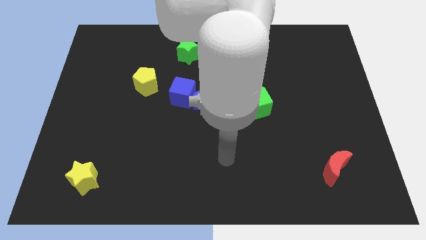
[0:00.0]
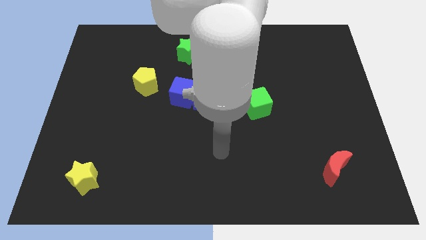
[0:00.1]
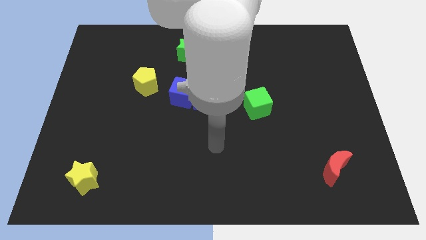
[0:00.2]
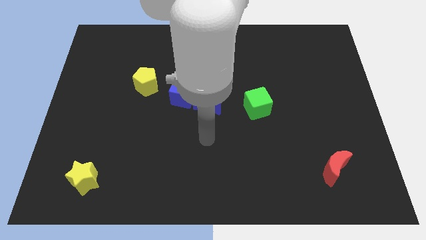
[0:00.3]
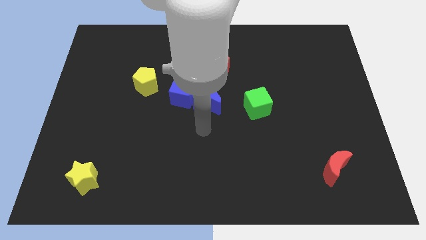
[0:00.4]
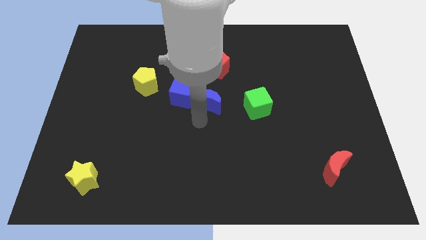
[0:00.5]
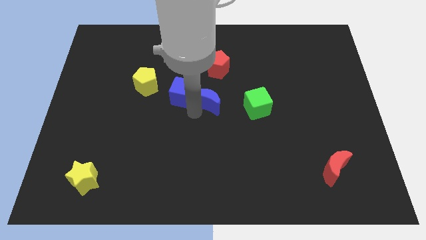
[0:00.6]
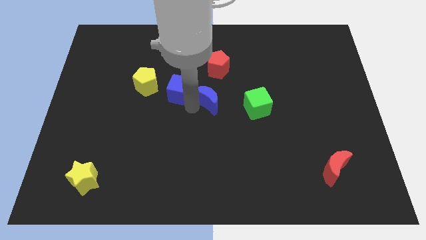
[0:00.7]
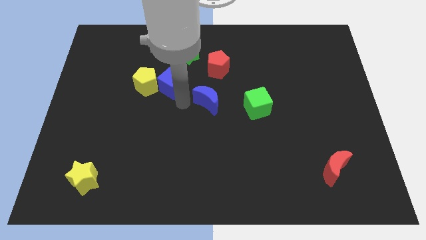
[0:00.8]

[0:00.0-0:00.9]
separate the blue moon from the blue cube

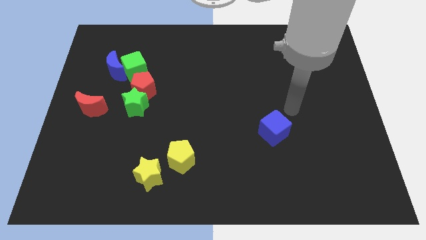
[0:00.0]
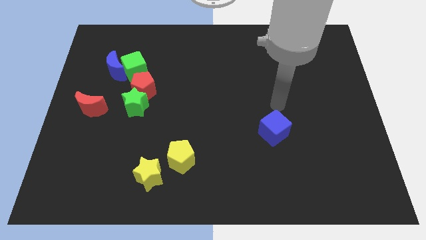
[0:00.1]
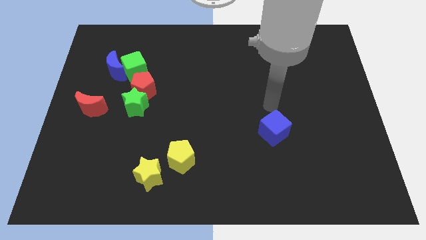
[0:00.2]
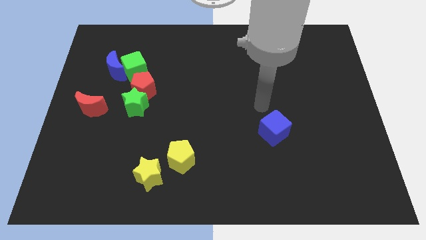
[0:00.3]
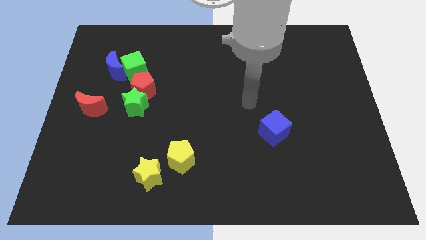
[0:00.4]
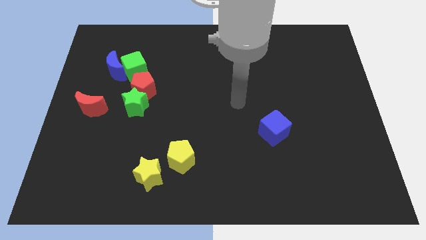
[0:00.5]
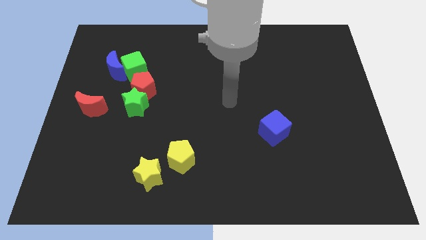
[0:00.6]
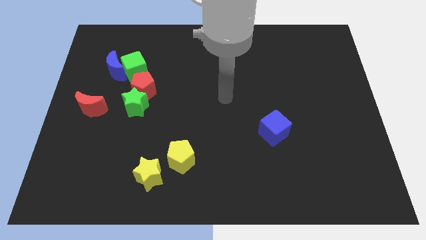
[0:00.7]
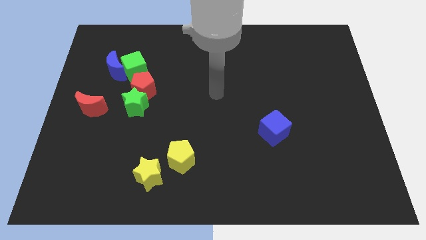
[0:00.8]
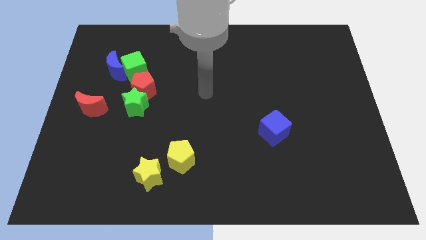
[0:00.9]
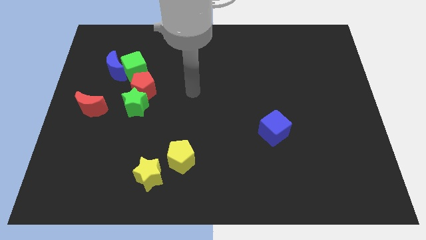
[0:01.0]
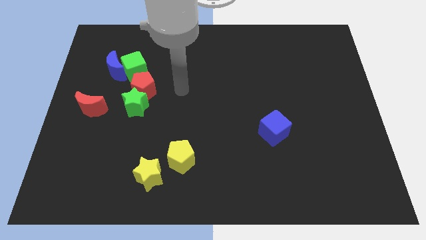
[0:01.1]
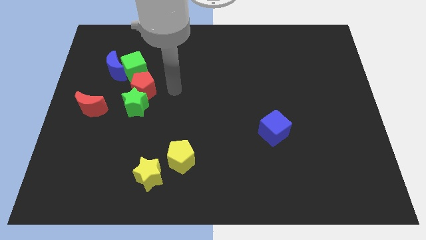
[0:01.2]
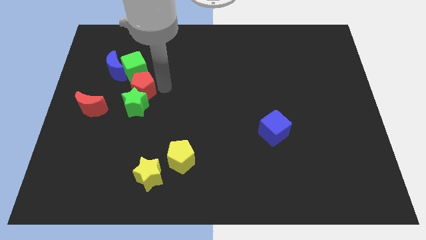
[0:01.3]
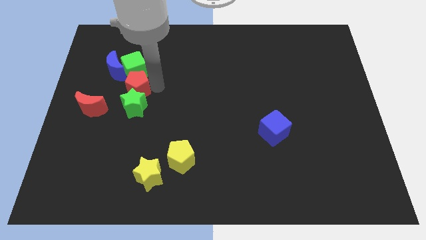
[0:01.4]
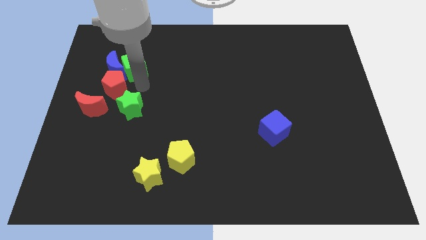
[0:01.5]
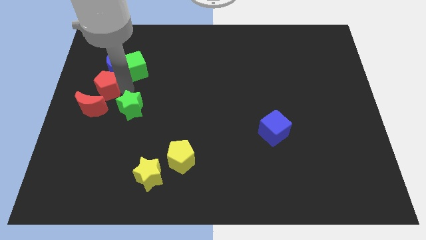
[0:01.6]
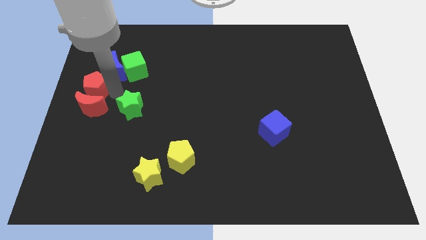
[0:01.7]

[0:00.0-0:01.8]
pull the green star apart from the red pentagon

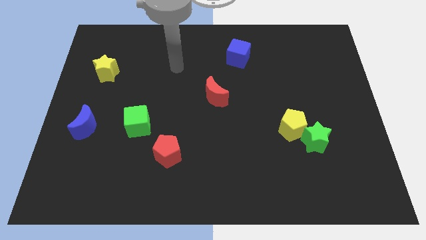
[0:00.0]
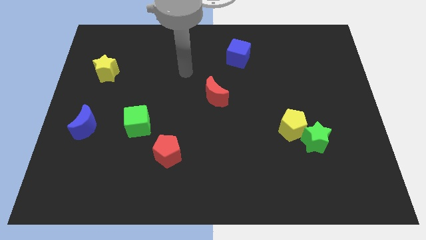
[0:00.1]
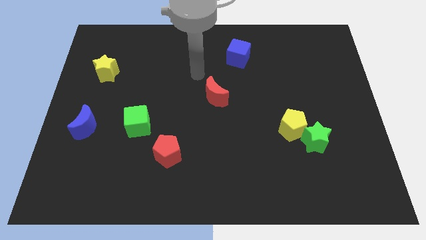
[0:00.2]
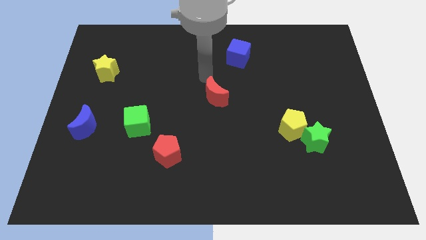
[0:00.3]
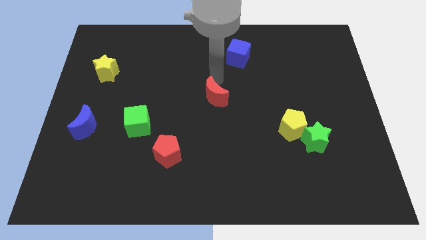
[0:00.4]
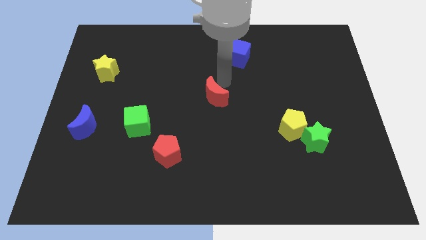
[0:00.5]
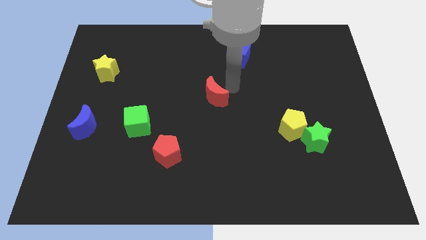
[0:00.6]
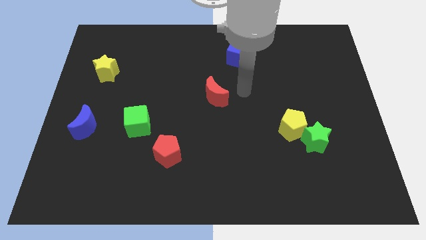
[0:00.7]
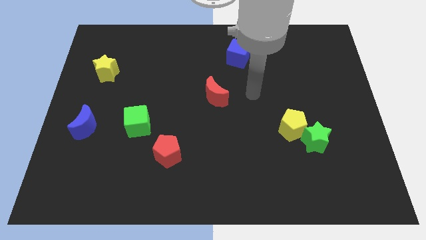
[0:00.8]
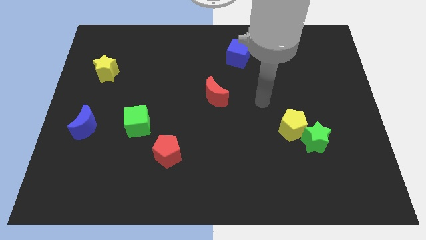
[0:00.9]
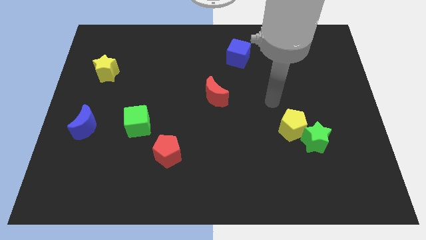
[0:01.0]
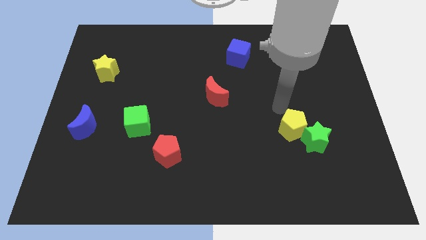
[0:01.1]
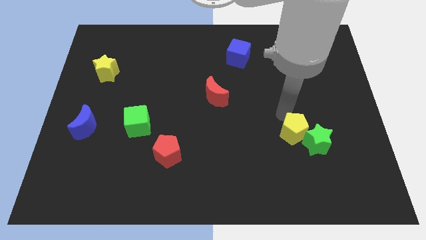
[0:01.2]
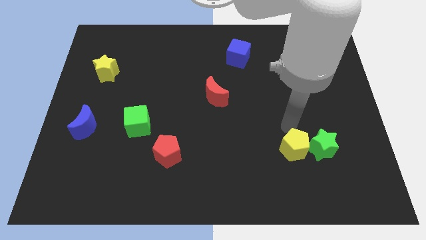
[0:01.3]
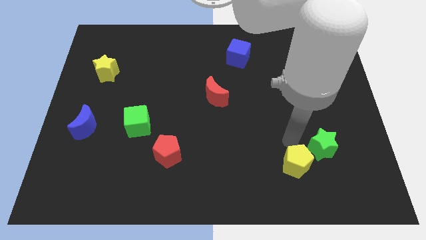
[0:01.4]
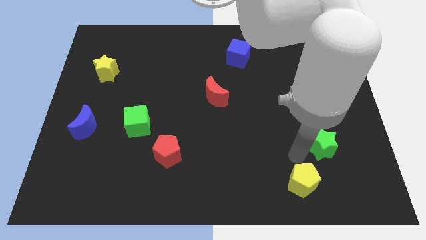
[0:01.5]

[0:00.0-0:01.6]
separate the green star from the yellow pentagon

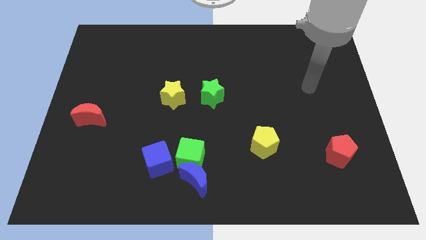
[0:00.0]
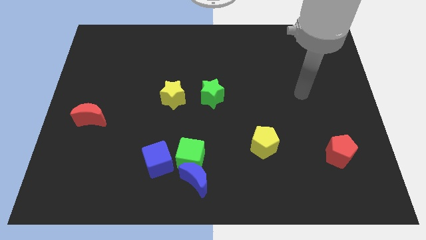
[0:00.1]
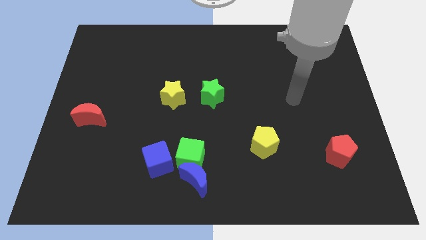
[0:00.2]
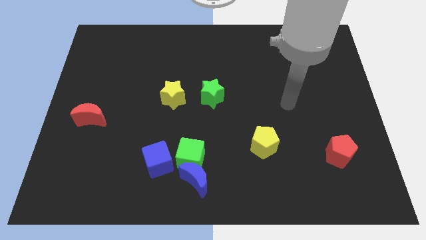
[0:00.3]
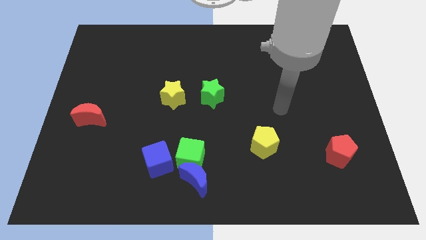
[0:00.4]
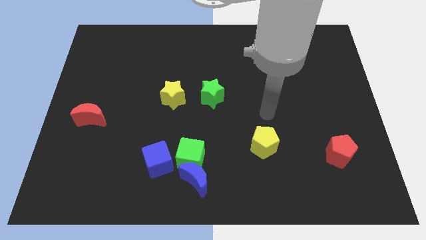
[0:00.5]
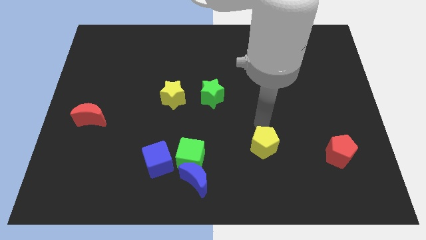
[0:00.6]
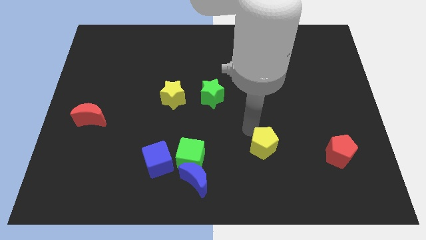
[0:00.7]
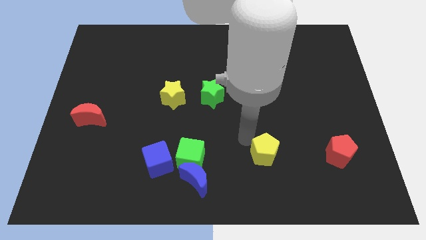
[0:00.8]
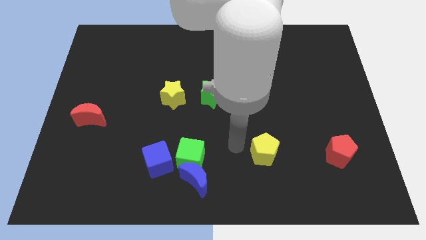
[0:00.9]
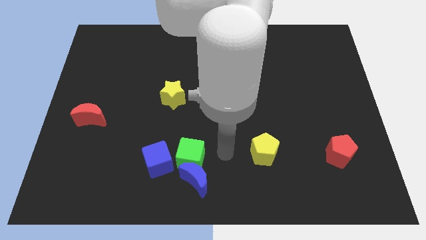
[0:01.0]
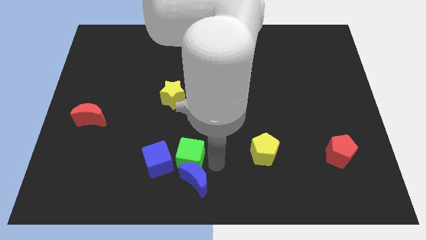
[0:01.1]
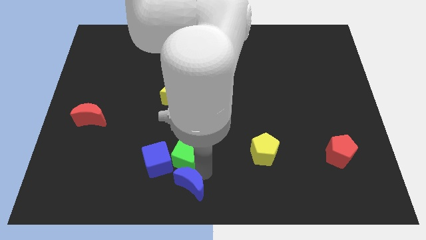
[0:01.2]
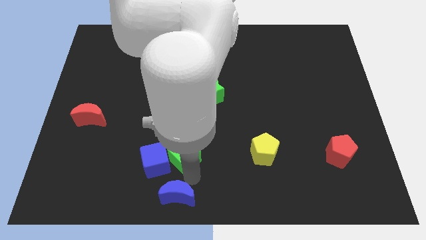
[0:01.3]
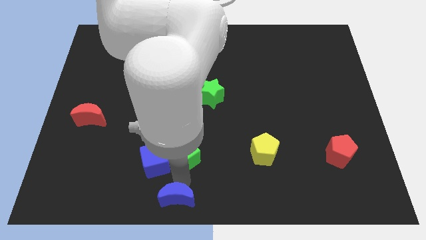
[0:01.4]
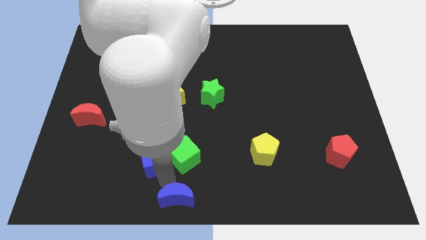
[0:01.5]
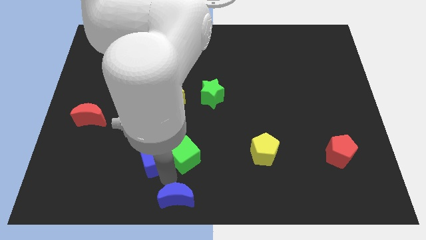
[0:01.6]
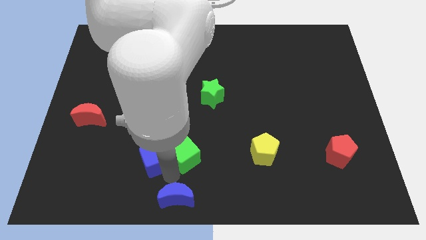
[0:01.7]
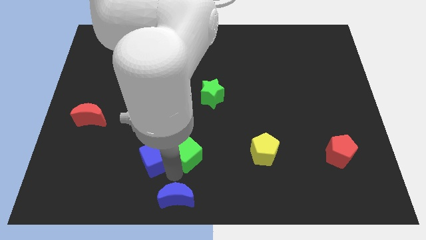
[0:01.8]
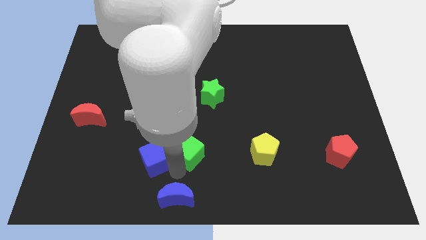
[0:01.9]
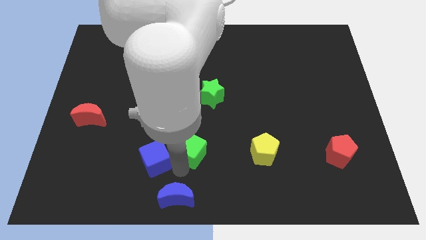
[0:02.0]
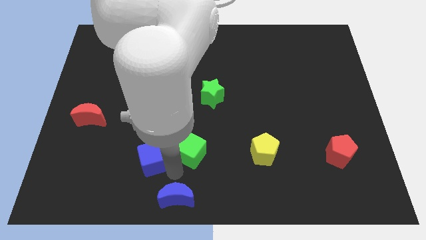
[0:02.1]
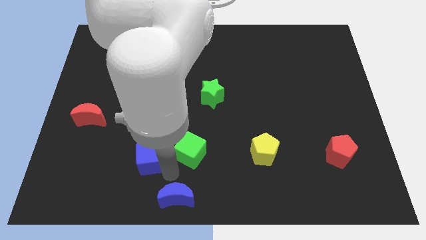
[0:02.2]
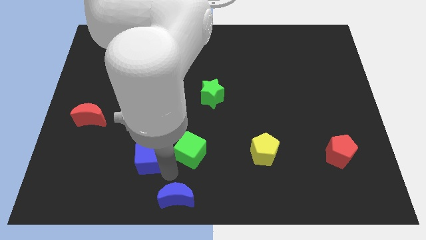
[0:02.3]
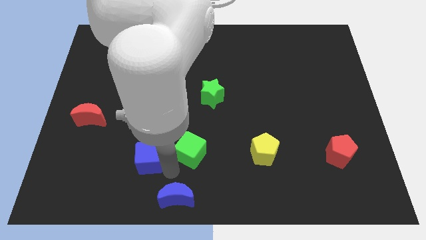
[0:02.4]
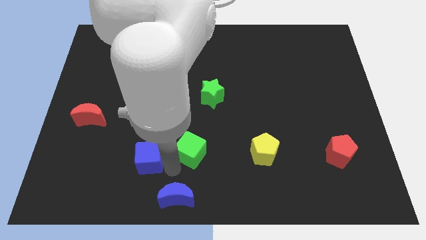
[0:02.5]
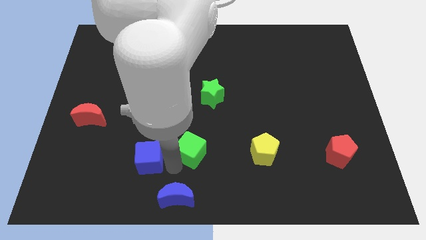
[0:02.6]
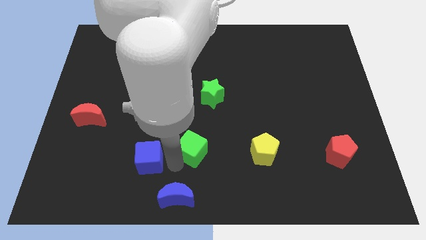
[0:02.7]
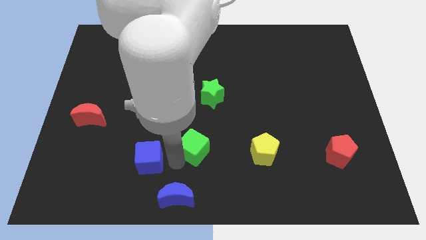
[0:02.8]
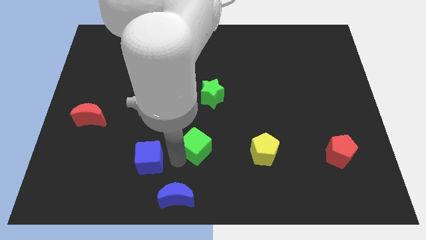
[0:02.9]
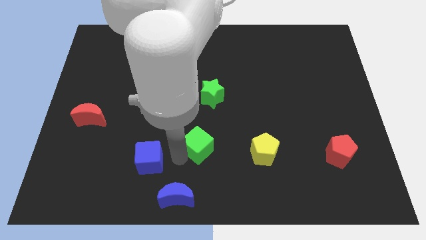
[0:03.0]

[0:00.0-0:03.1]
move the green cube away from the blue moon and blue cube

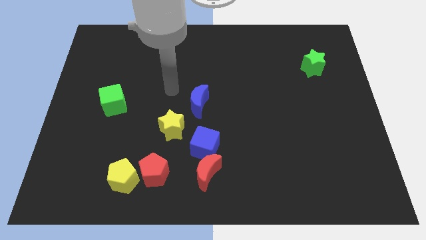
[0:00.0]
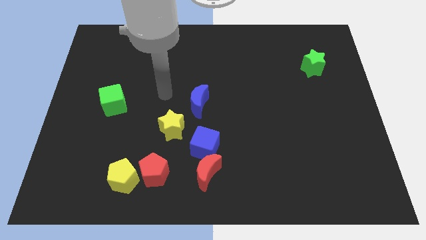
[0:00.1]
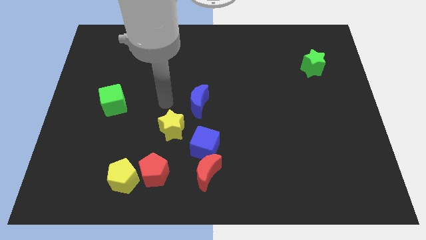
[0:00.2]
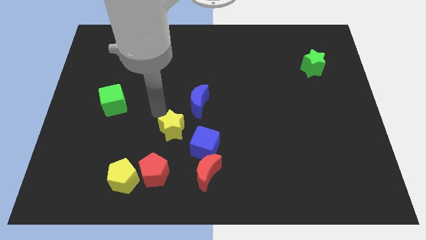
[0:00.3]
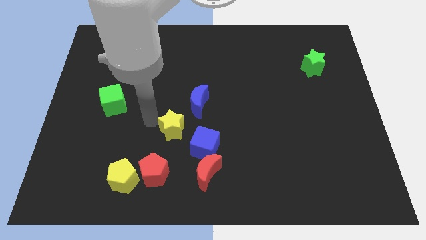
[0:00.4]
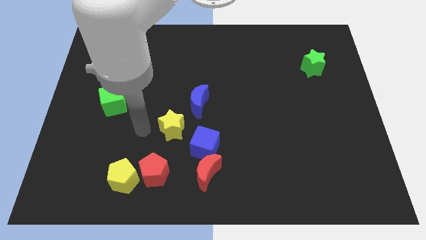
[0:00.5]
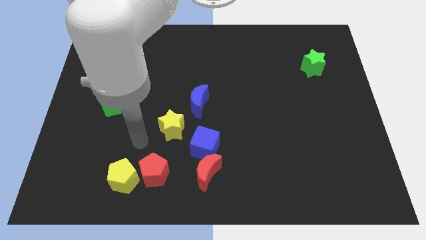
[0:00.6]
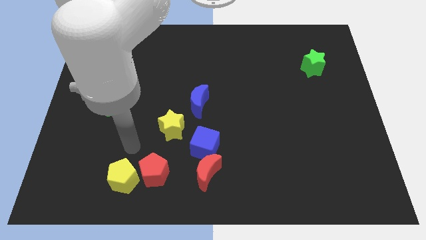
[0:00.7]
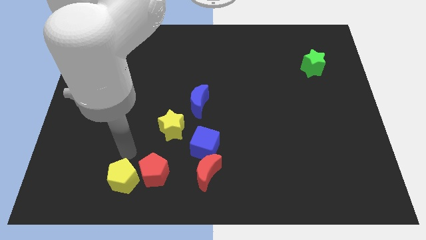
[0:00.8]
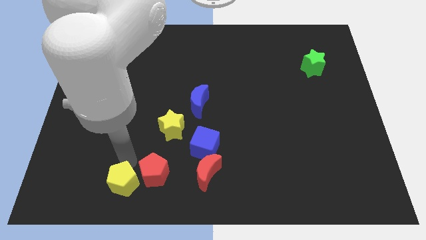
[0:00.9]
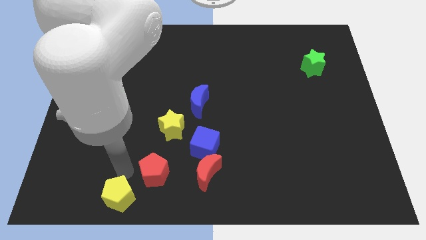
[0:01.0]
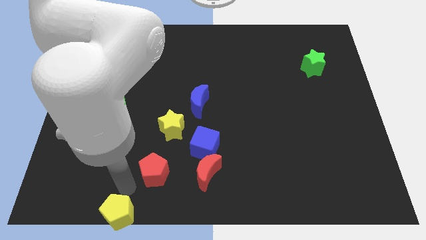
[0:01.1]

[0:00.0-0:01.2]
move the red pentagon away from the yellow pentagon

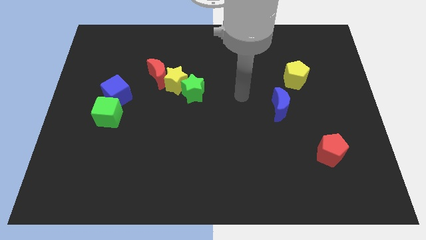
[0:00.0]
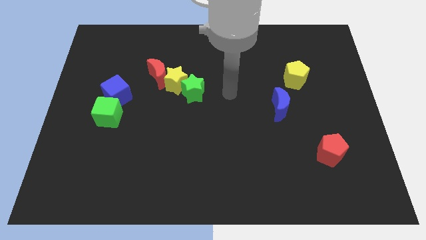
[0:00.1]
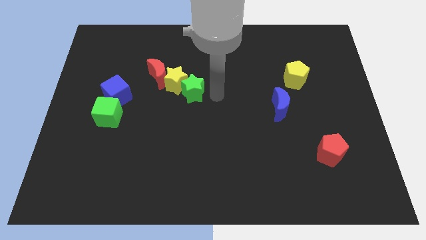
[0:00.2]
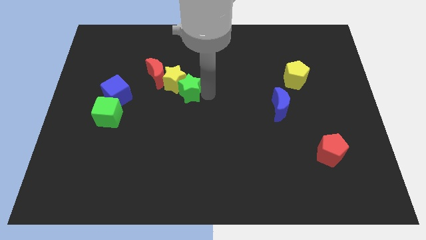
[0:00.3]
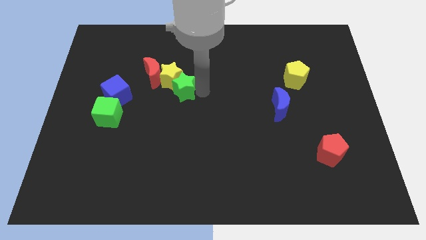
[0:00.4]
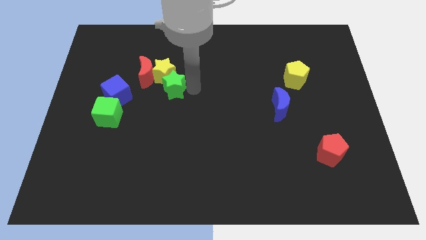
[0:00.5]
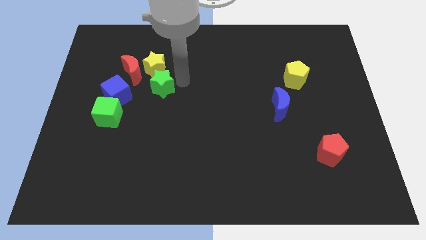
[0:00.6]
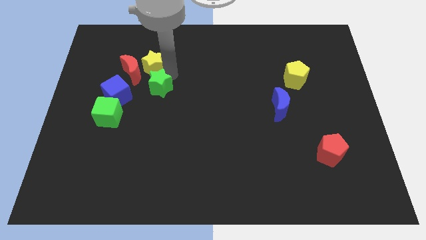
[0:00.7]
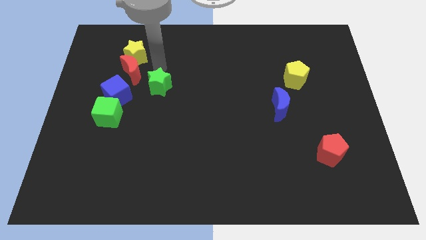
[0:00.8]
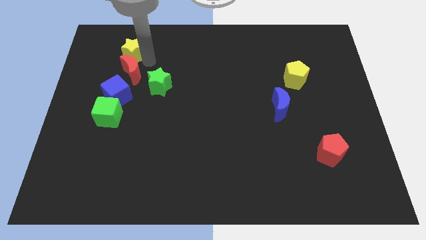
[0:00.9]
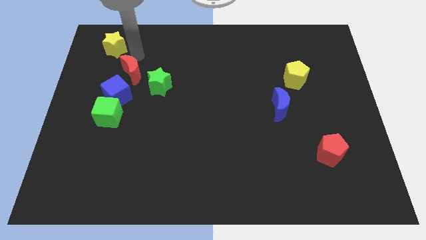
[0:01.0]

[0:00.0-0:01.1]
separate the red moon from the yellow star
